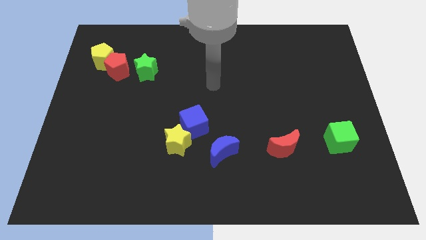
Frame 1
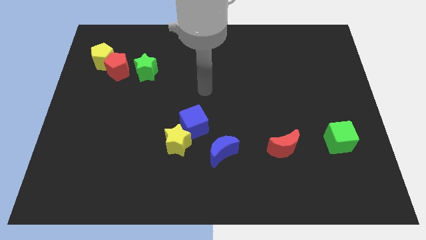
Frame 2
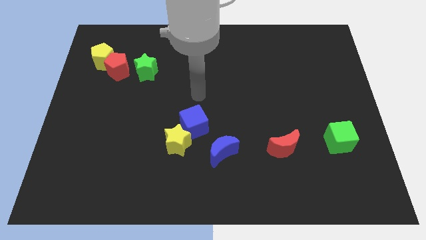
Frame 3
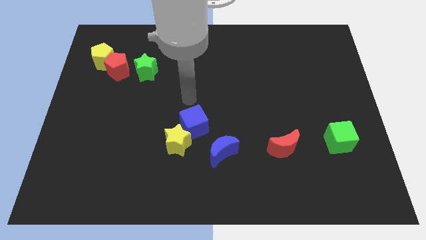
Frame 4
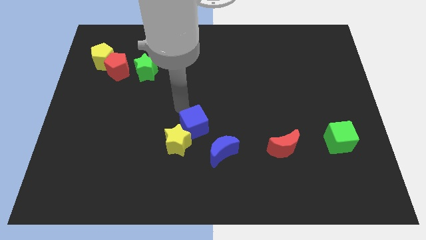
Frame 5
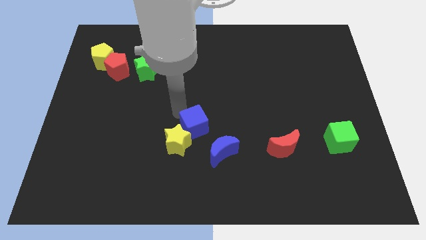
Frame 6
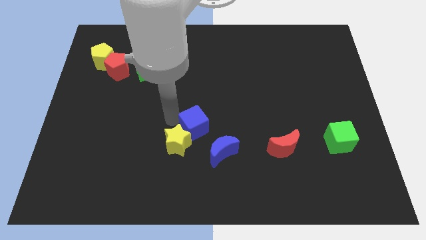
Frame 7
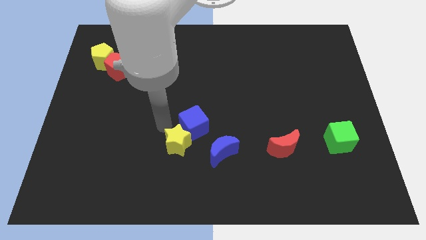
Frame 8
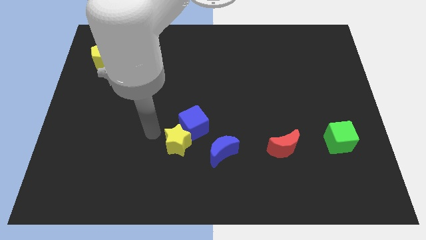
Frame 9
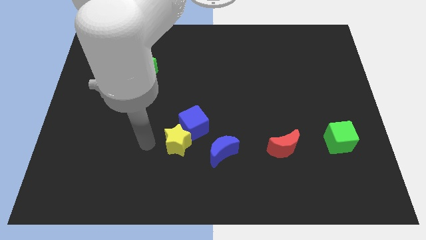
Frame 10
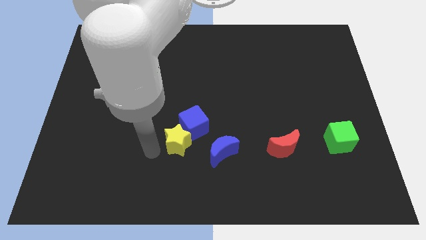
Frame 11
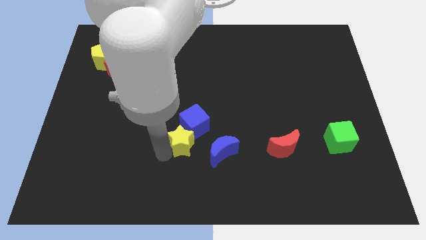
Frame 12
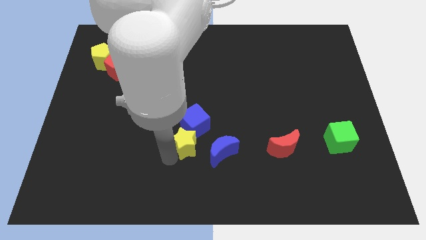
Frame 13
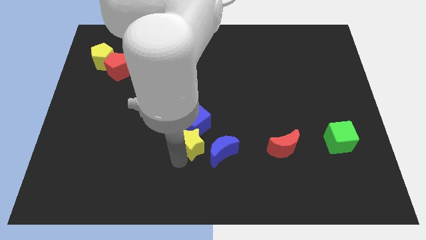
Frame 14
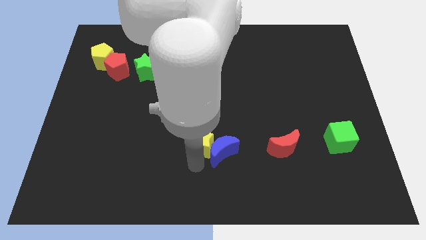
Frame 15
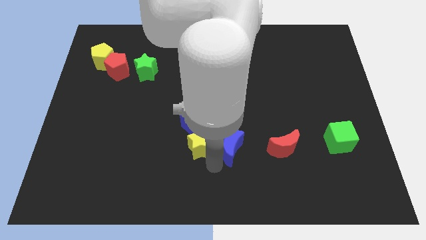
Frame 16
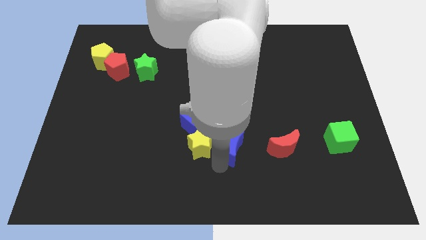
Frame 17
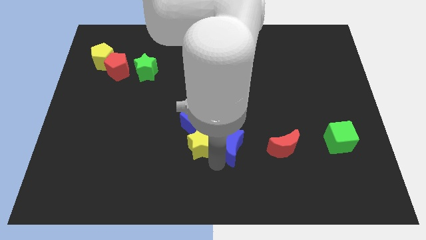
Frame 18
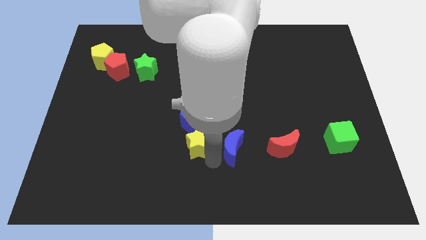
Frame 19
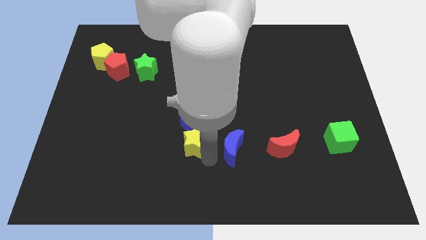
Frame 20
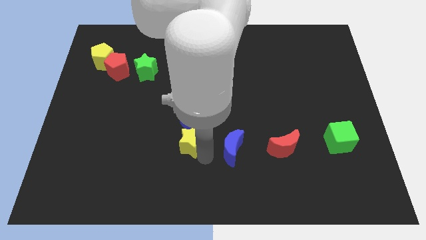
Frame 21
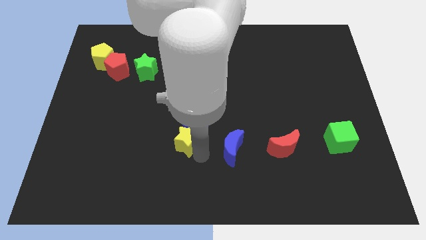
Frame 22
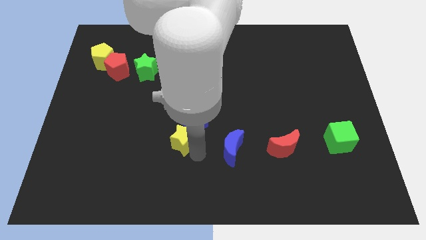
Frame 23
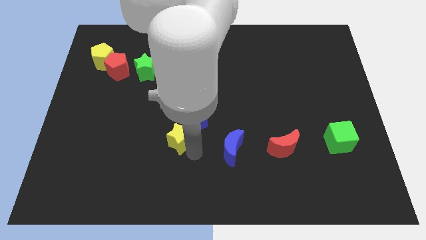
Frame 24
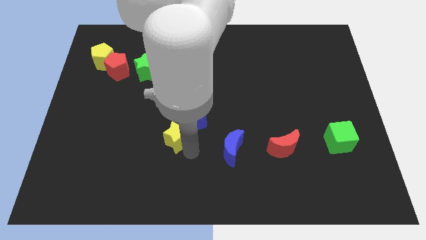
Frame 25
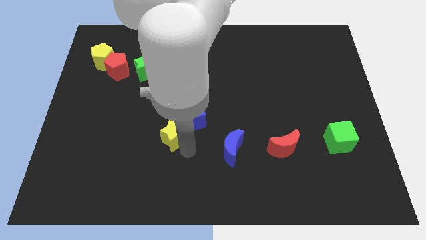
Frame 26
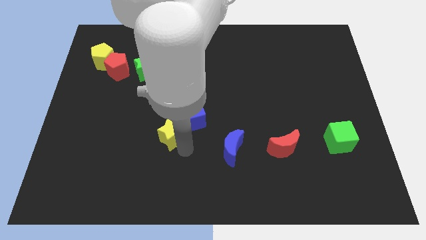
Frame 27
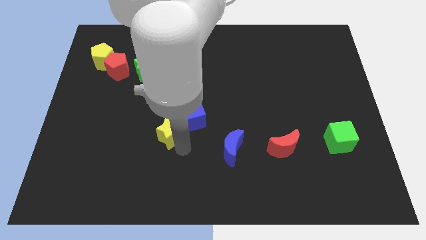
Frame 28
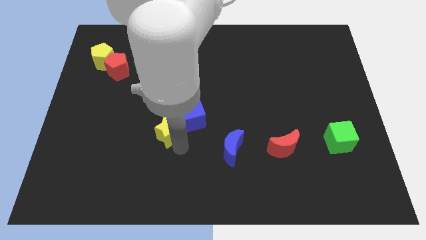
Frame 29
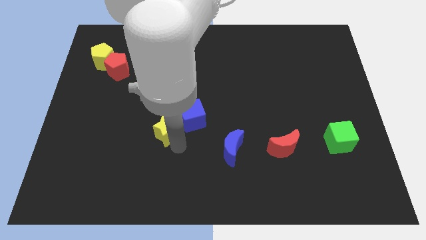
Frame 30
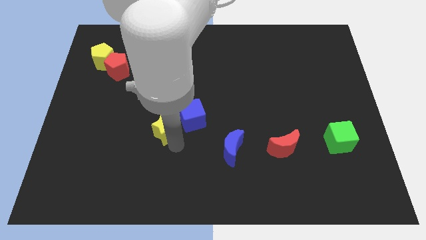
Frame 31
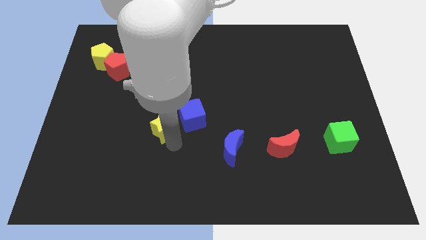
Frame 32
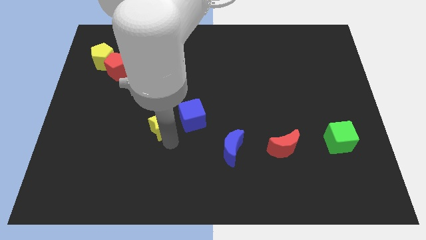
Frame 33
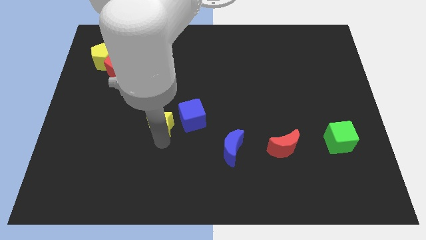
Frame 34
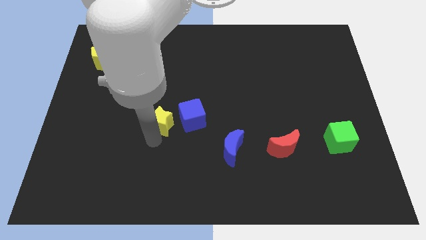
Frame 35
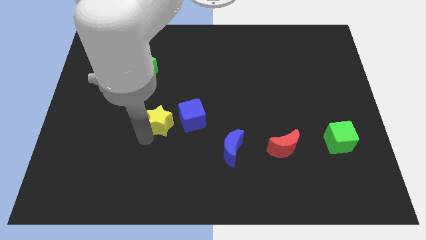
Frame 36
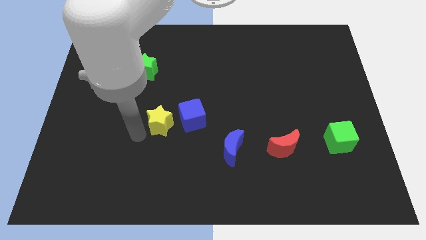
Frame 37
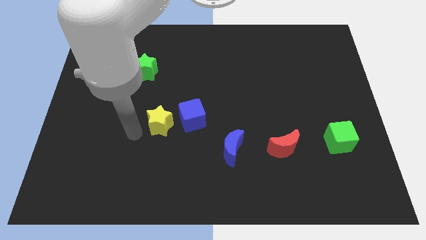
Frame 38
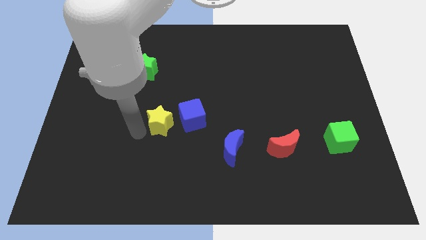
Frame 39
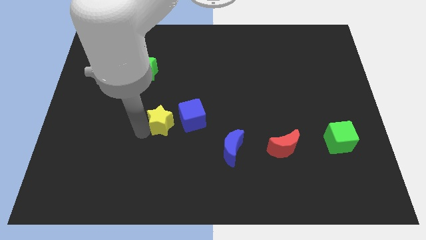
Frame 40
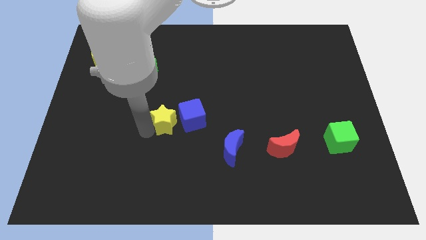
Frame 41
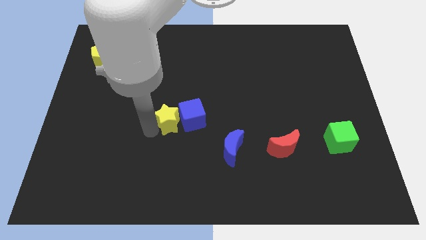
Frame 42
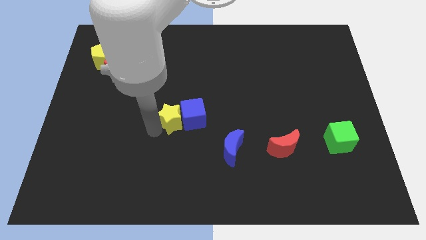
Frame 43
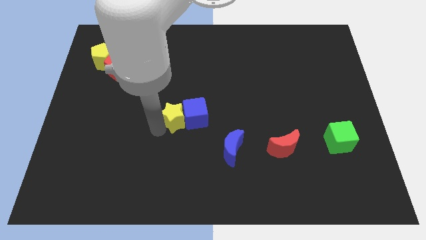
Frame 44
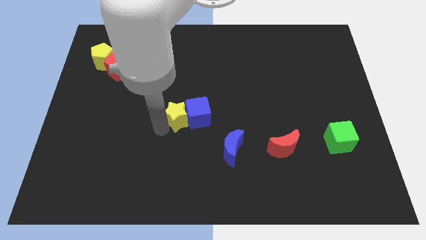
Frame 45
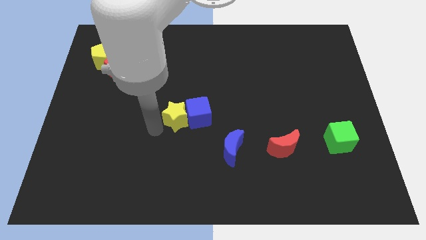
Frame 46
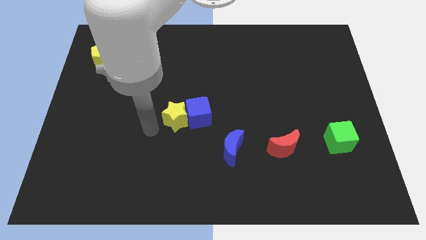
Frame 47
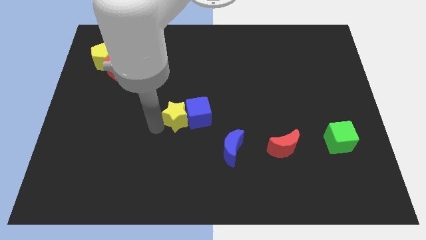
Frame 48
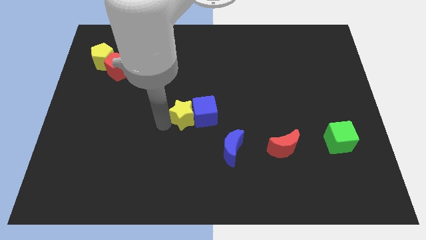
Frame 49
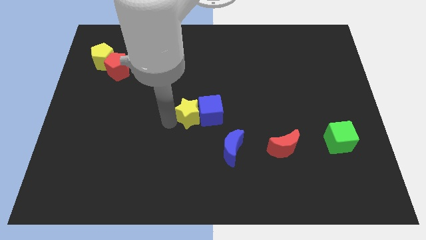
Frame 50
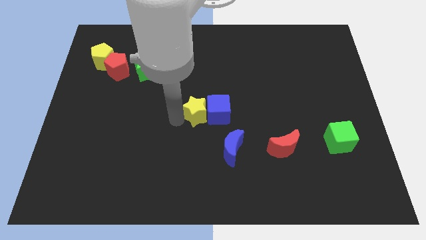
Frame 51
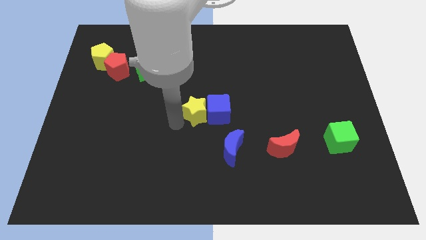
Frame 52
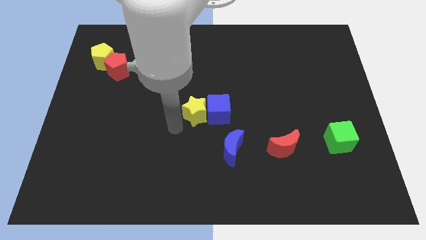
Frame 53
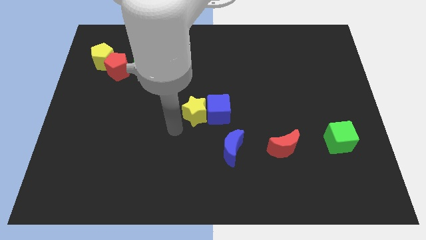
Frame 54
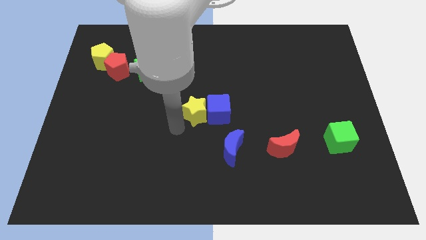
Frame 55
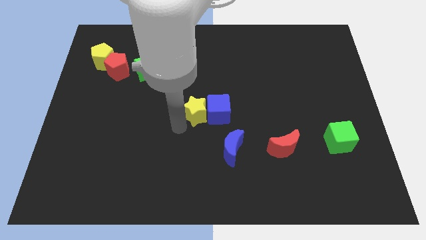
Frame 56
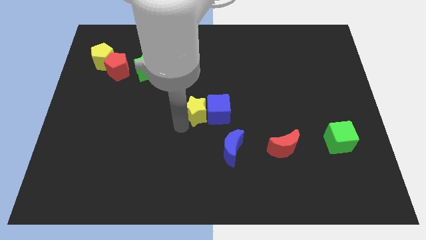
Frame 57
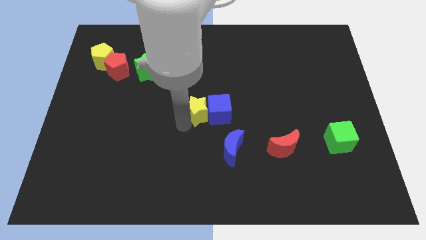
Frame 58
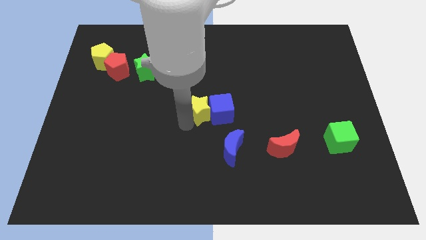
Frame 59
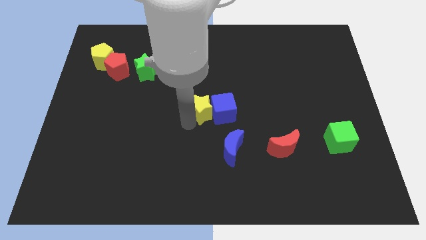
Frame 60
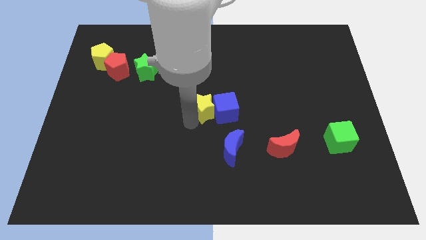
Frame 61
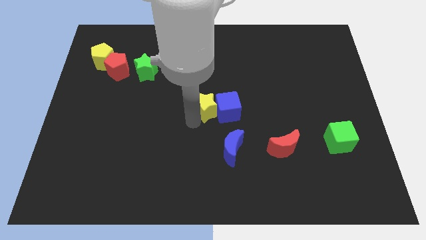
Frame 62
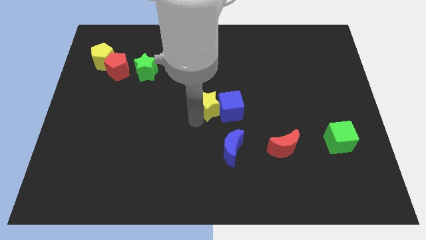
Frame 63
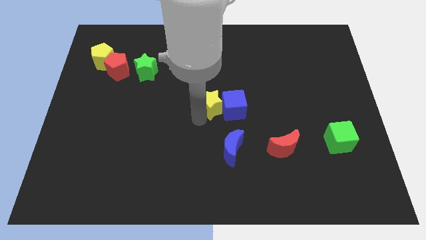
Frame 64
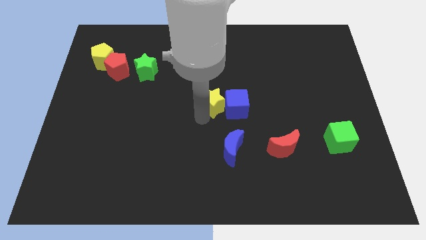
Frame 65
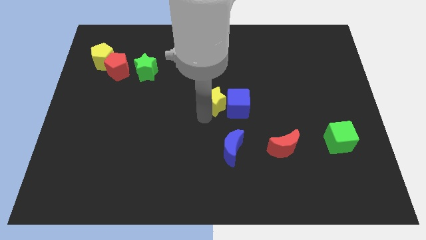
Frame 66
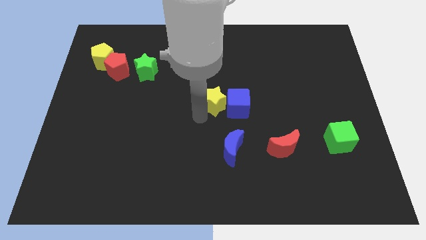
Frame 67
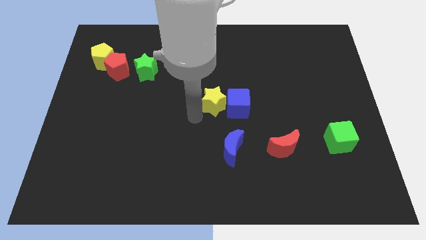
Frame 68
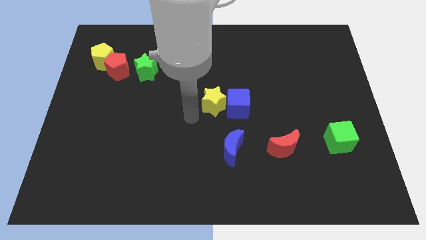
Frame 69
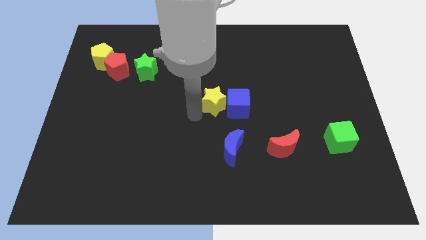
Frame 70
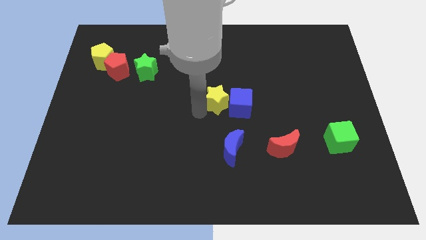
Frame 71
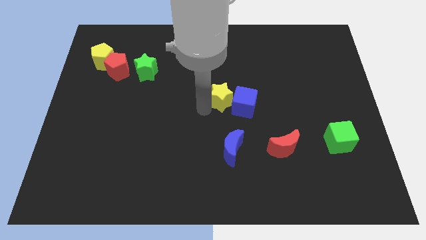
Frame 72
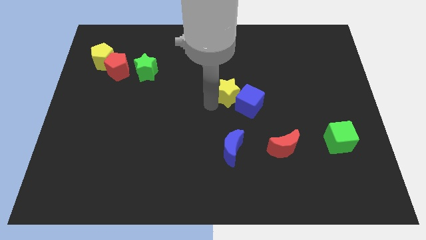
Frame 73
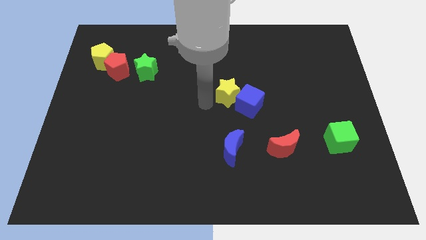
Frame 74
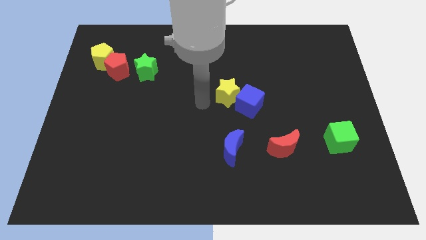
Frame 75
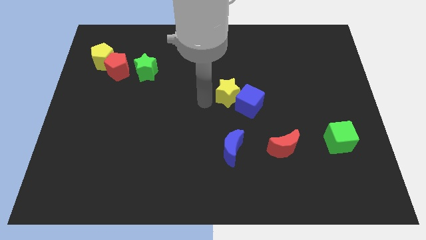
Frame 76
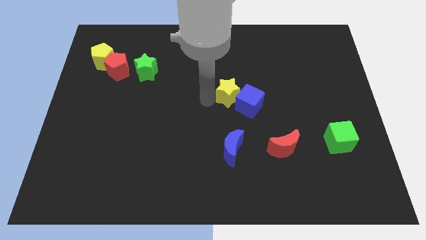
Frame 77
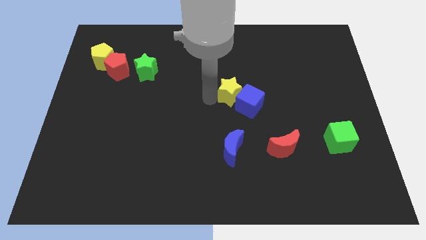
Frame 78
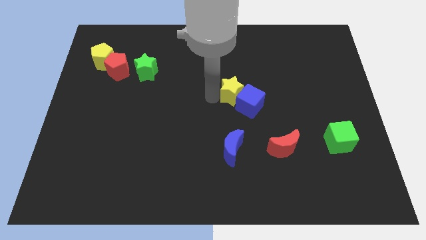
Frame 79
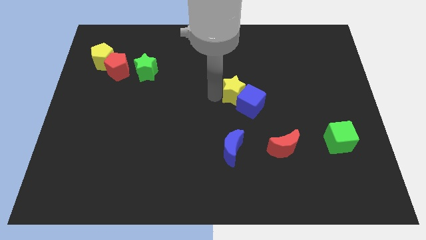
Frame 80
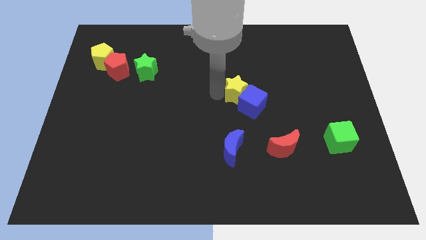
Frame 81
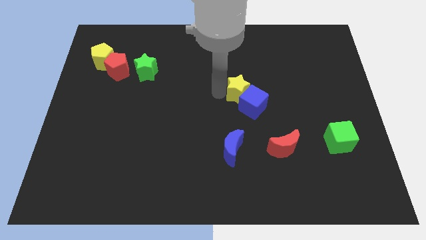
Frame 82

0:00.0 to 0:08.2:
push the yellow star upwards and then to the right
